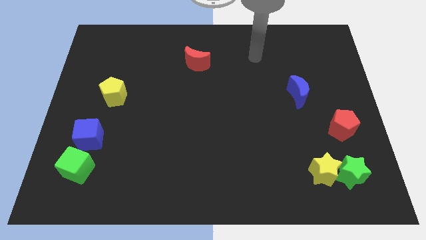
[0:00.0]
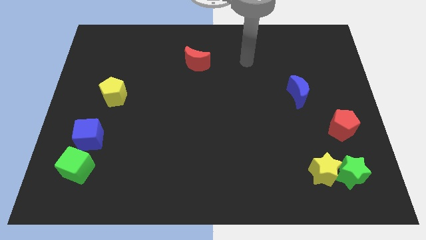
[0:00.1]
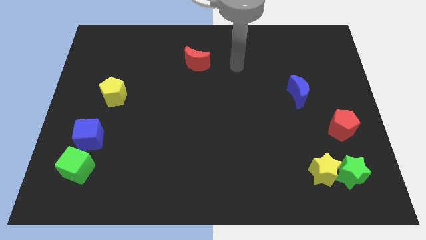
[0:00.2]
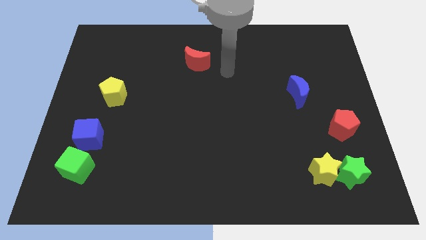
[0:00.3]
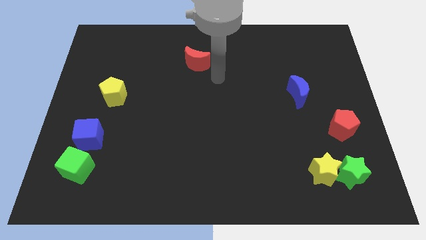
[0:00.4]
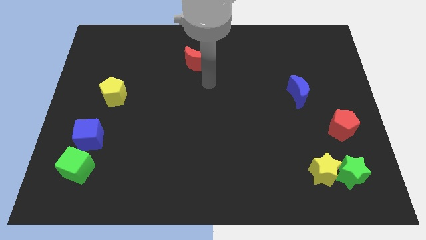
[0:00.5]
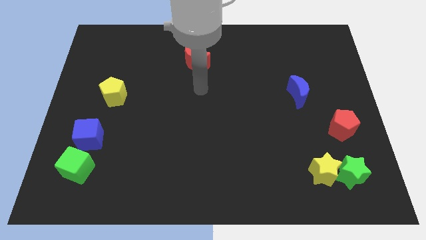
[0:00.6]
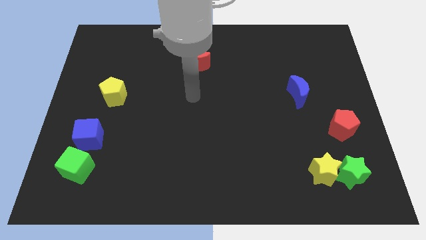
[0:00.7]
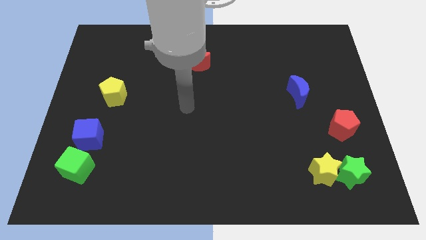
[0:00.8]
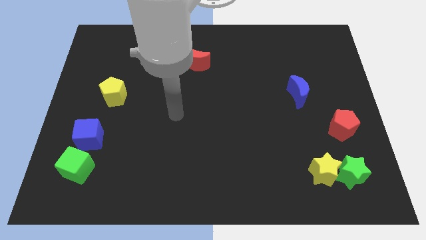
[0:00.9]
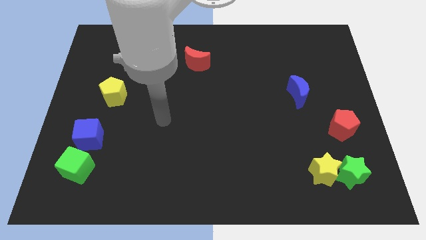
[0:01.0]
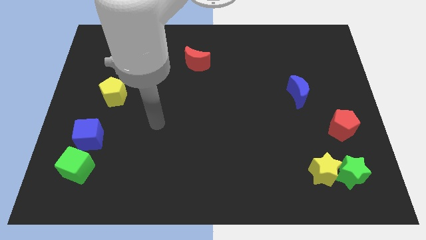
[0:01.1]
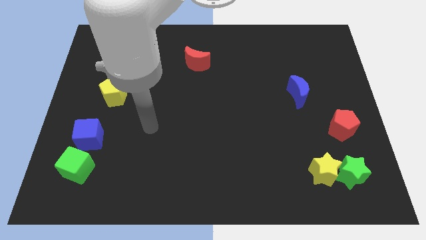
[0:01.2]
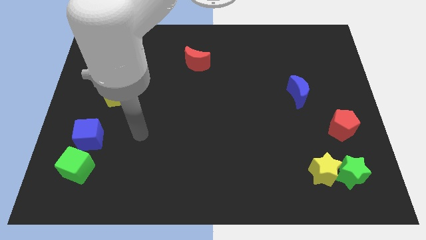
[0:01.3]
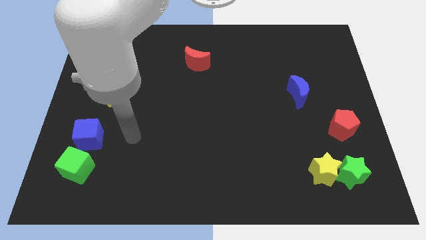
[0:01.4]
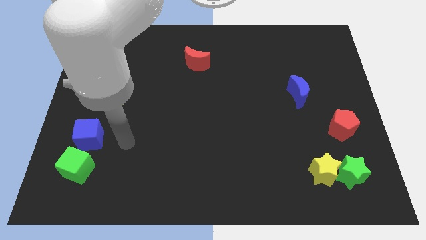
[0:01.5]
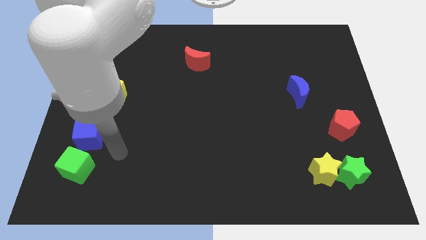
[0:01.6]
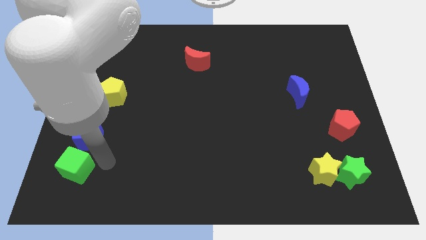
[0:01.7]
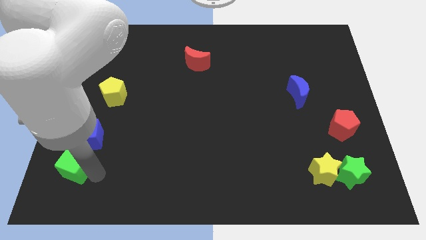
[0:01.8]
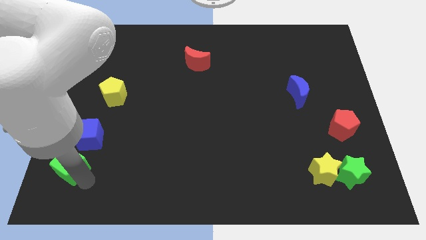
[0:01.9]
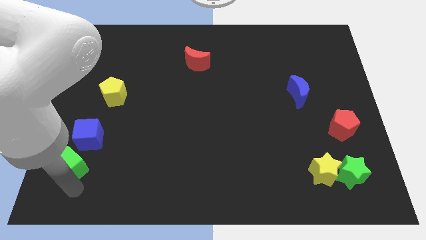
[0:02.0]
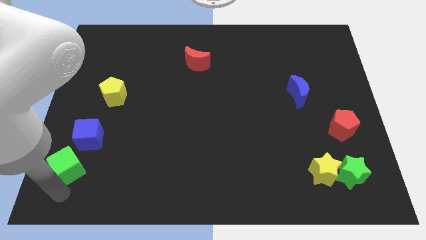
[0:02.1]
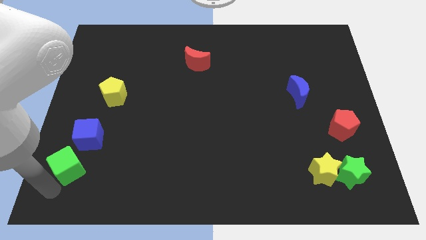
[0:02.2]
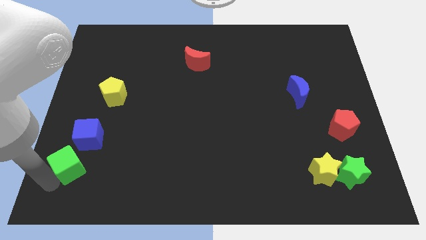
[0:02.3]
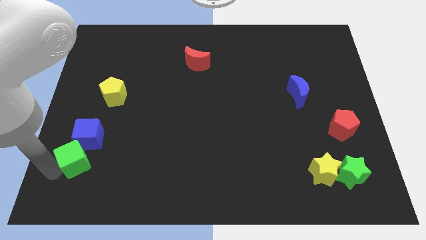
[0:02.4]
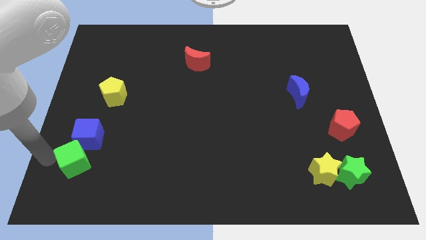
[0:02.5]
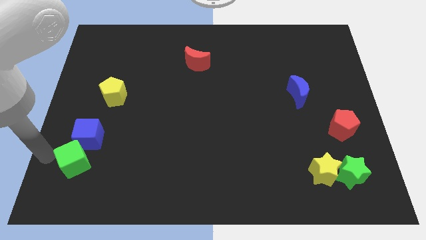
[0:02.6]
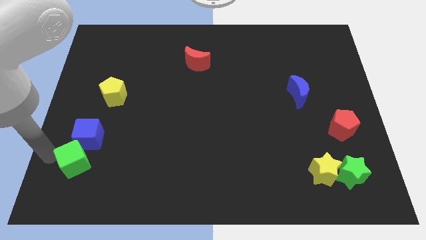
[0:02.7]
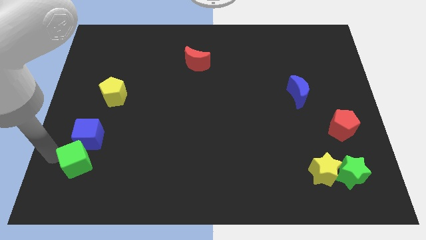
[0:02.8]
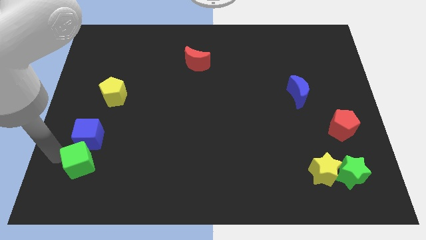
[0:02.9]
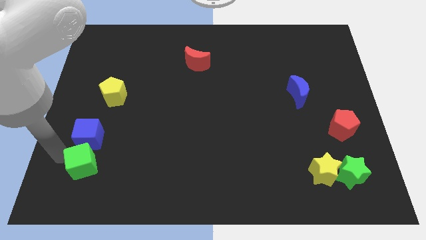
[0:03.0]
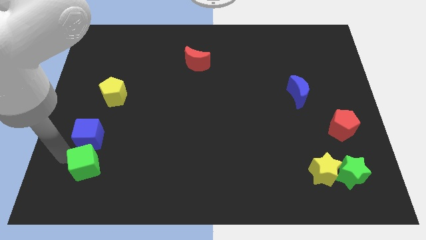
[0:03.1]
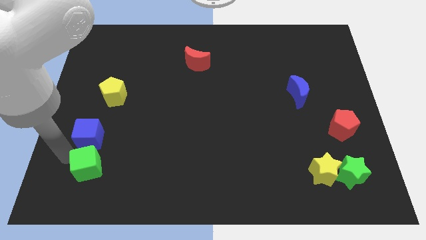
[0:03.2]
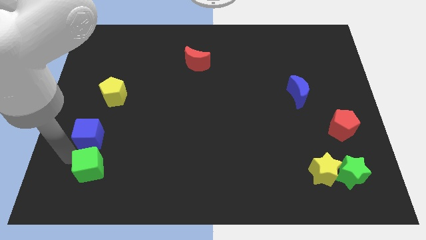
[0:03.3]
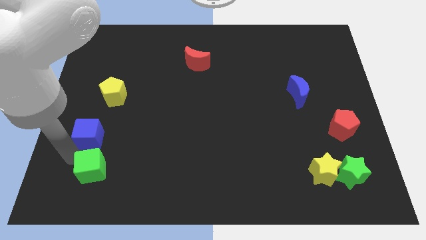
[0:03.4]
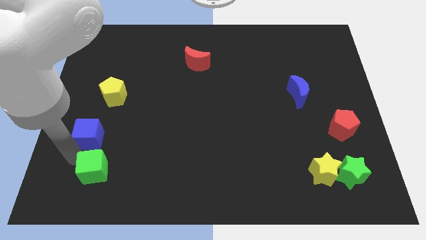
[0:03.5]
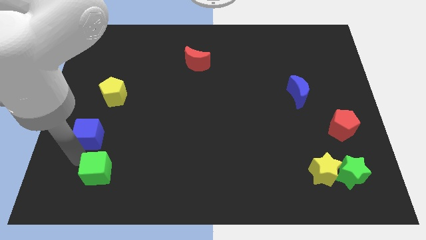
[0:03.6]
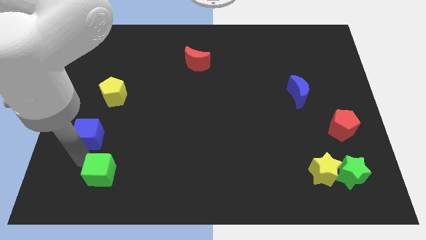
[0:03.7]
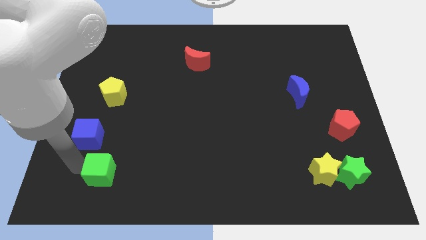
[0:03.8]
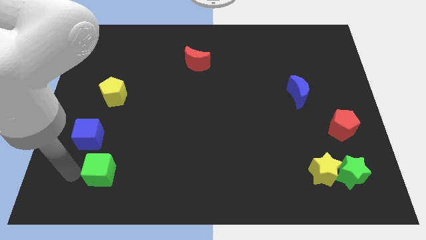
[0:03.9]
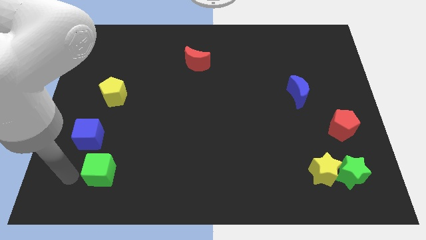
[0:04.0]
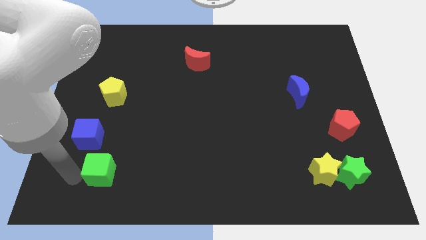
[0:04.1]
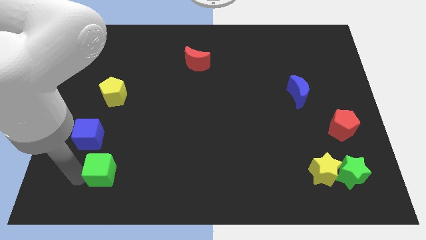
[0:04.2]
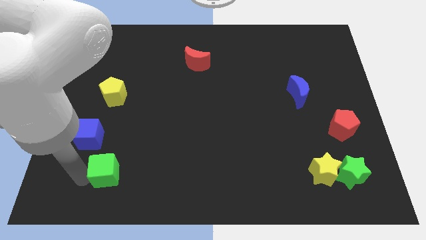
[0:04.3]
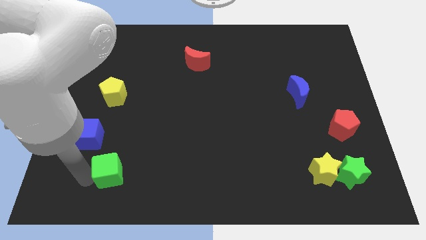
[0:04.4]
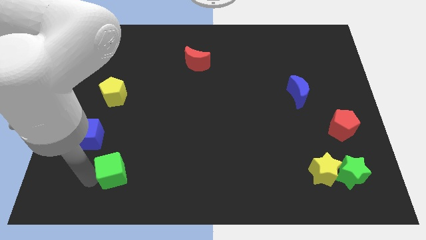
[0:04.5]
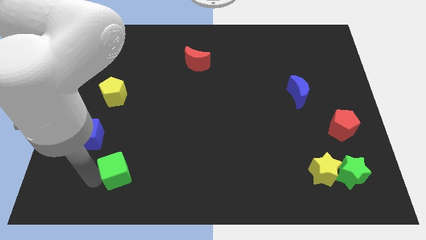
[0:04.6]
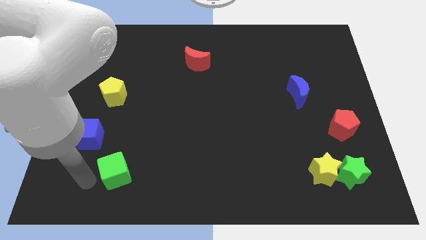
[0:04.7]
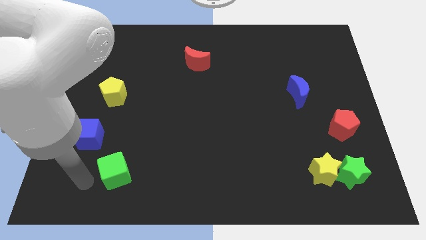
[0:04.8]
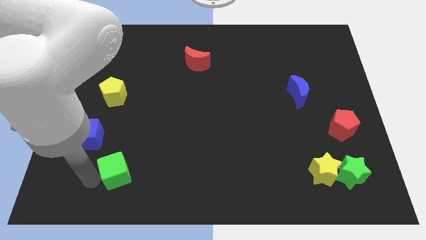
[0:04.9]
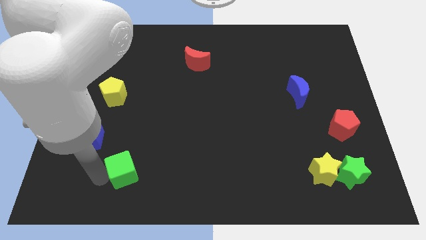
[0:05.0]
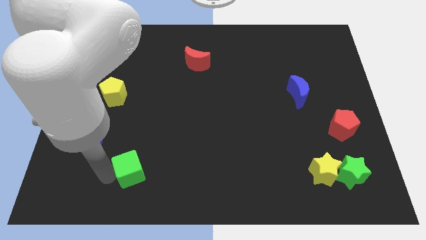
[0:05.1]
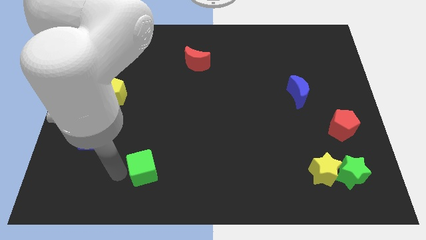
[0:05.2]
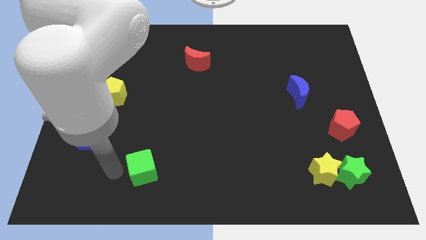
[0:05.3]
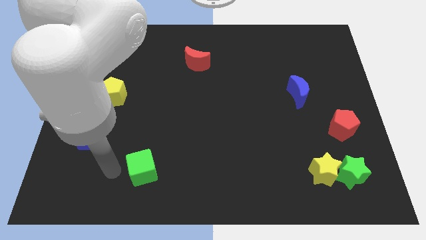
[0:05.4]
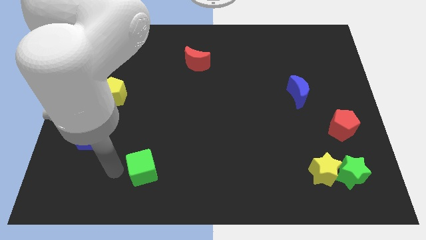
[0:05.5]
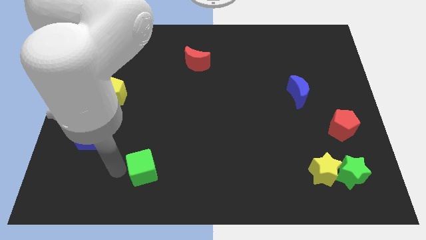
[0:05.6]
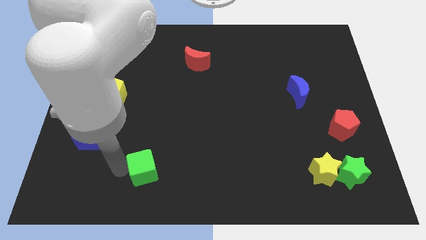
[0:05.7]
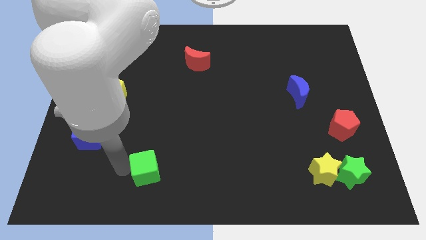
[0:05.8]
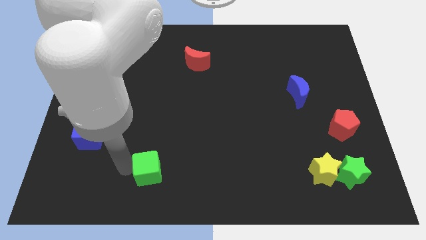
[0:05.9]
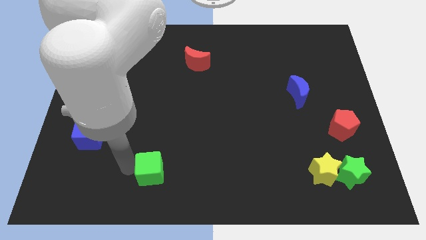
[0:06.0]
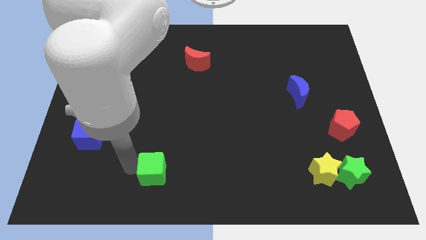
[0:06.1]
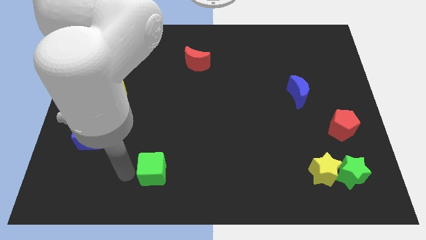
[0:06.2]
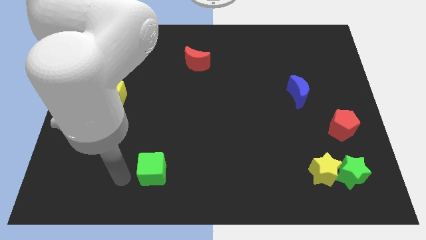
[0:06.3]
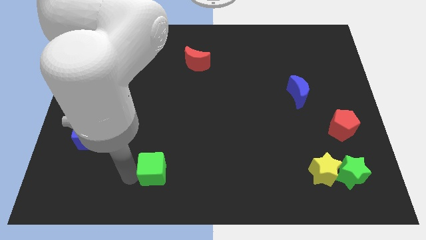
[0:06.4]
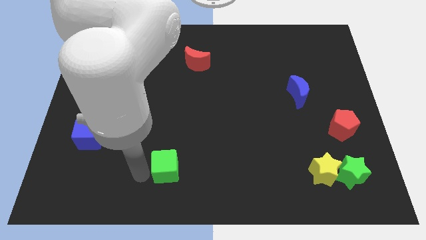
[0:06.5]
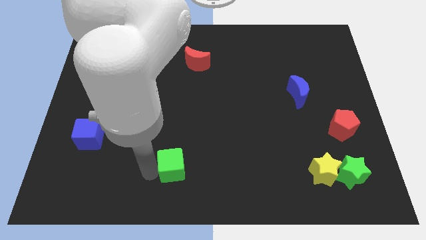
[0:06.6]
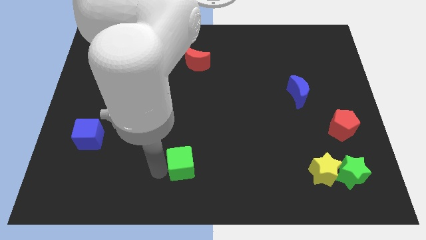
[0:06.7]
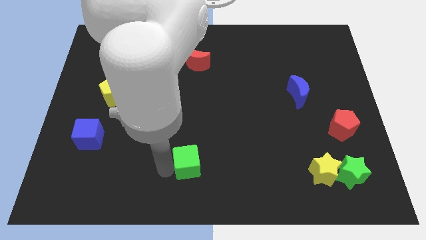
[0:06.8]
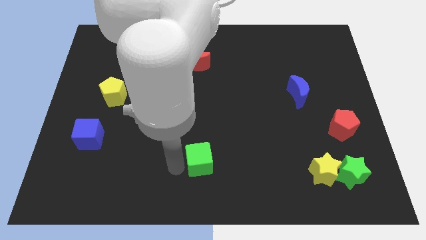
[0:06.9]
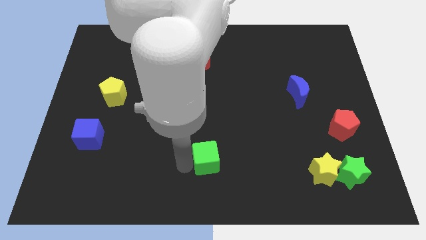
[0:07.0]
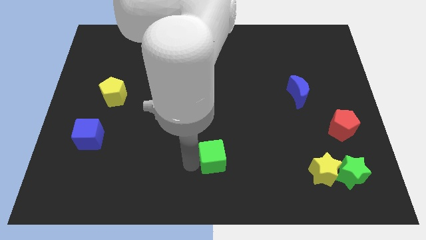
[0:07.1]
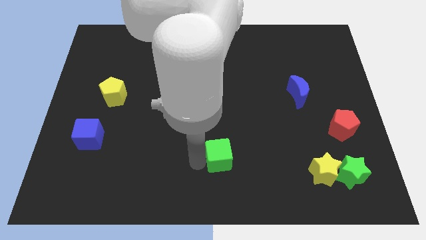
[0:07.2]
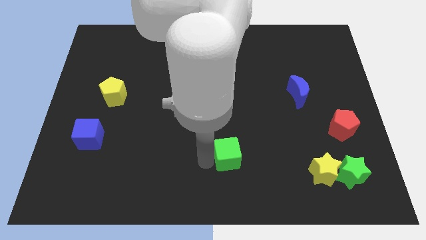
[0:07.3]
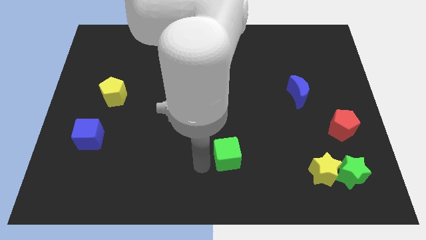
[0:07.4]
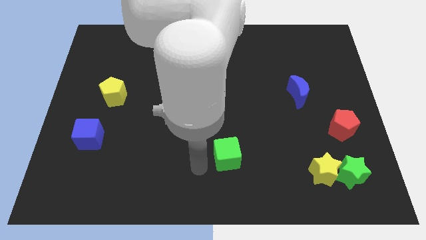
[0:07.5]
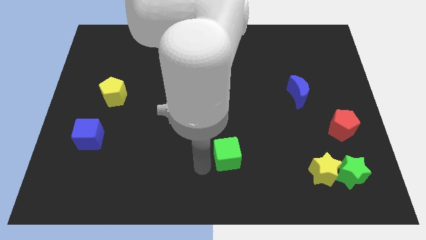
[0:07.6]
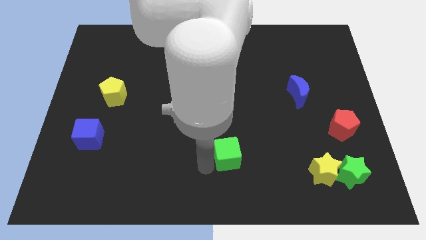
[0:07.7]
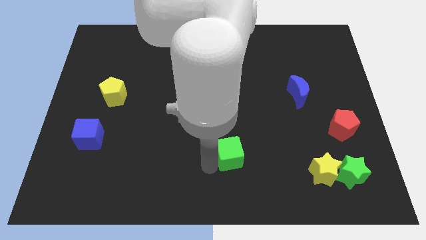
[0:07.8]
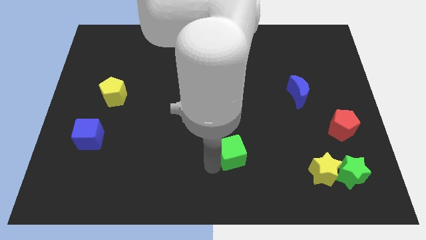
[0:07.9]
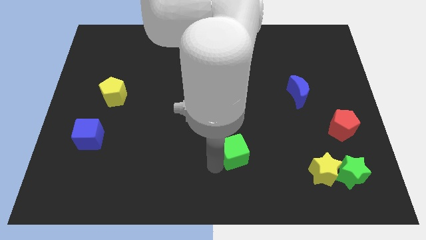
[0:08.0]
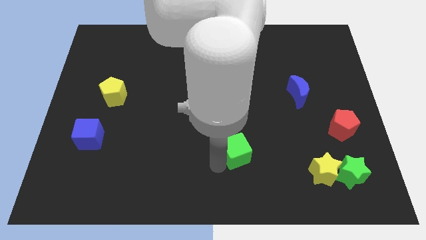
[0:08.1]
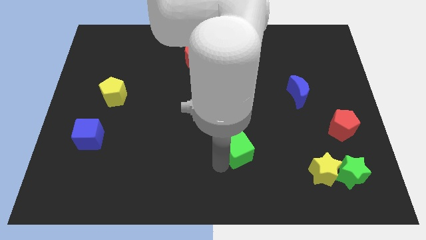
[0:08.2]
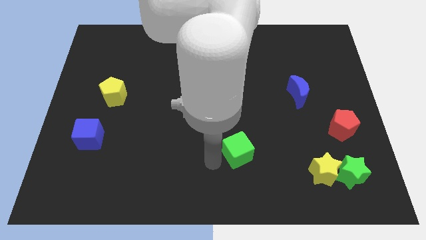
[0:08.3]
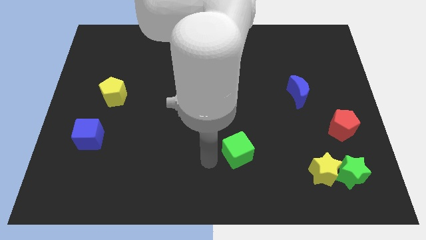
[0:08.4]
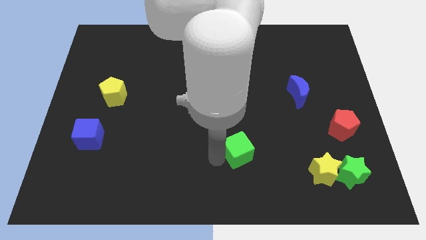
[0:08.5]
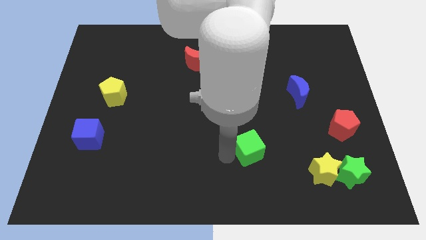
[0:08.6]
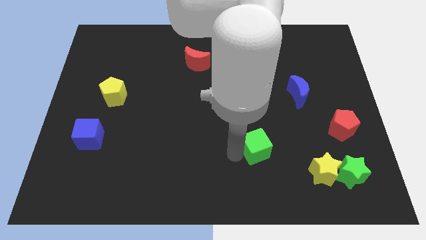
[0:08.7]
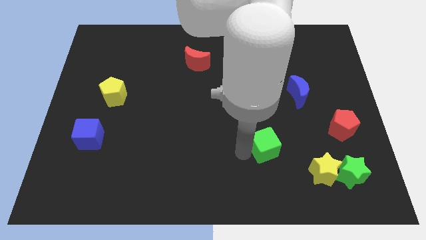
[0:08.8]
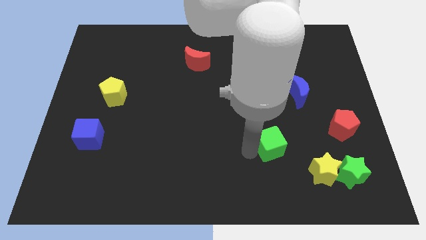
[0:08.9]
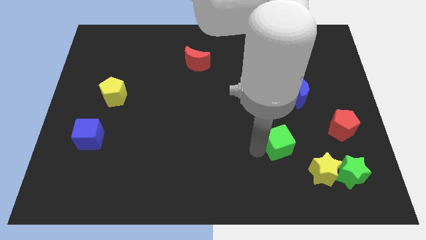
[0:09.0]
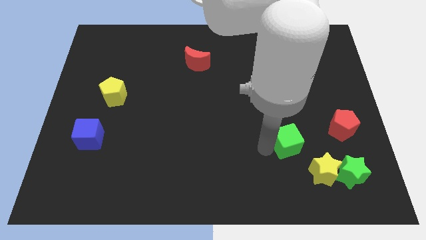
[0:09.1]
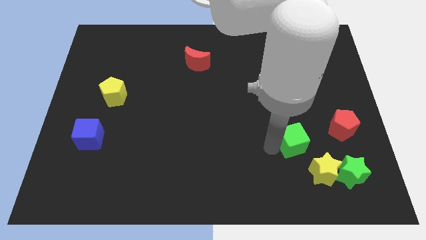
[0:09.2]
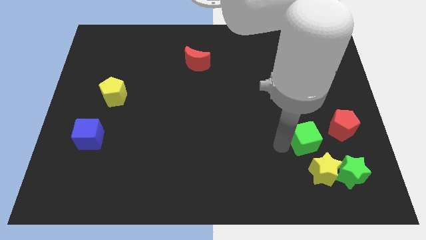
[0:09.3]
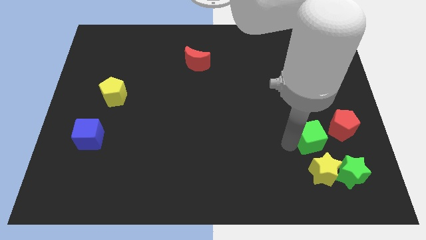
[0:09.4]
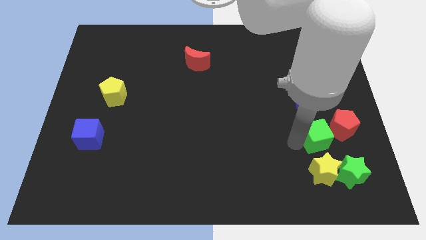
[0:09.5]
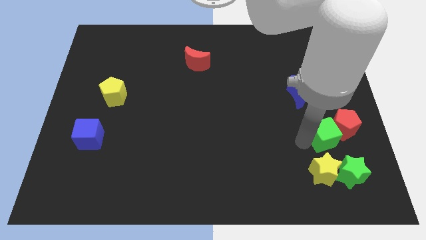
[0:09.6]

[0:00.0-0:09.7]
put the green cube close to the red pentagon
